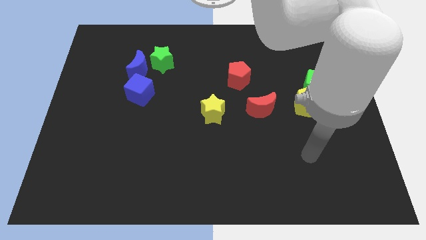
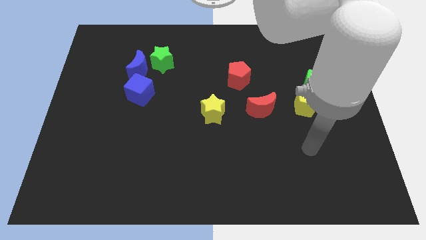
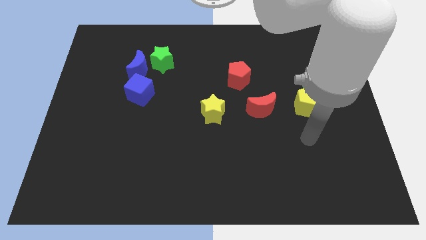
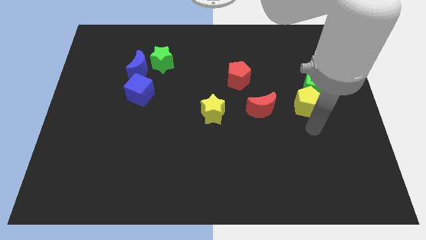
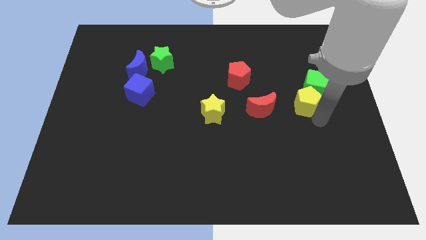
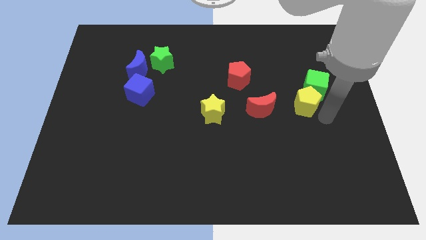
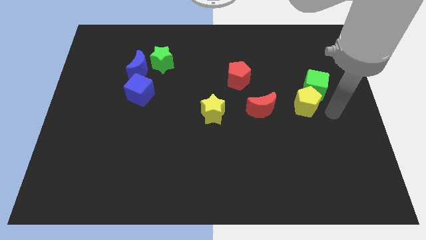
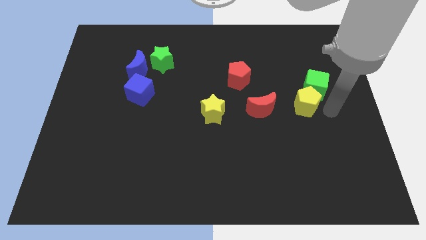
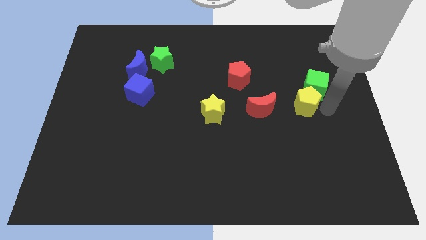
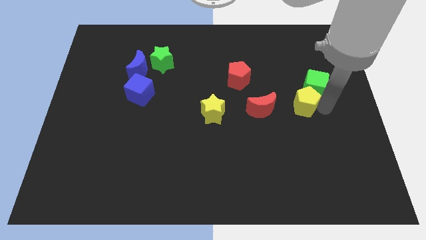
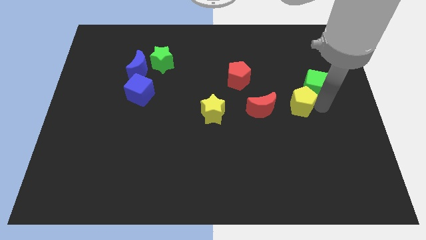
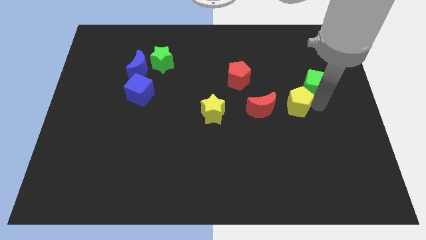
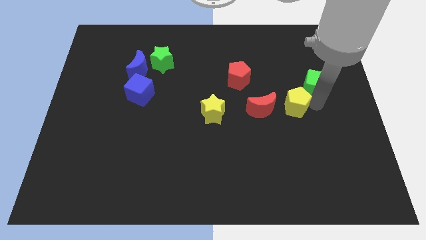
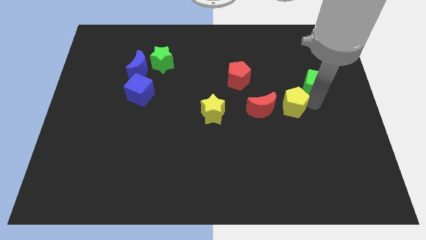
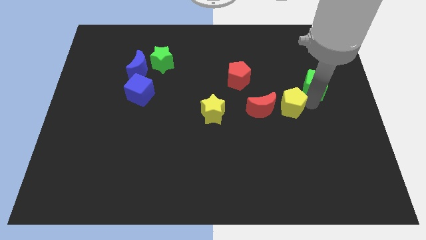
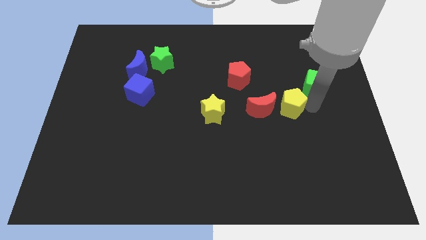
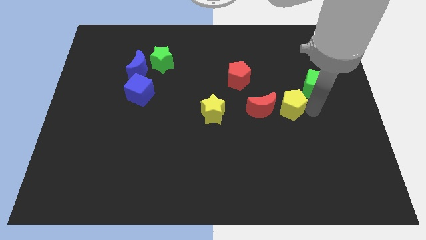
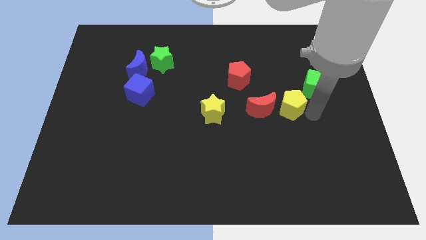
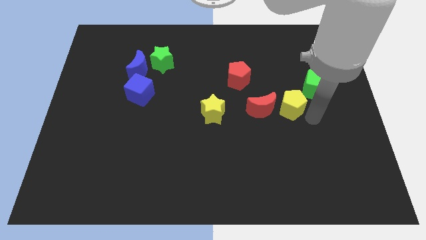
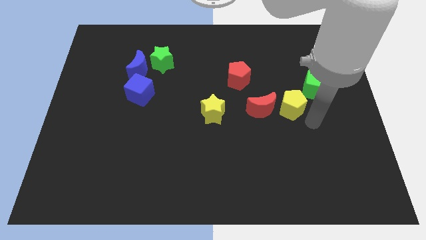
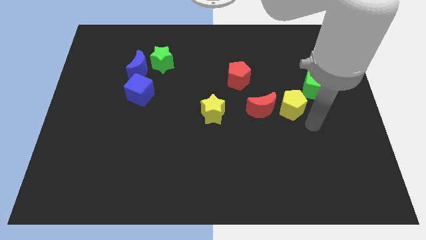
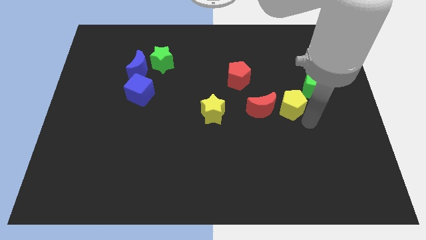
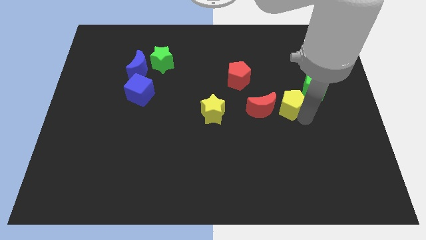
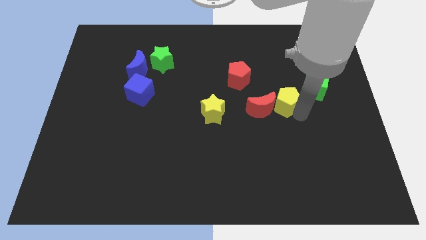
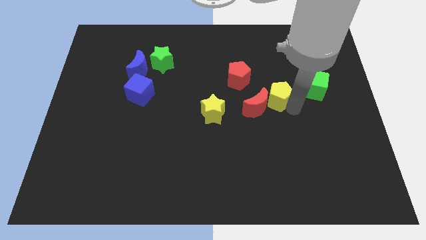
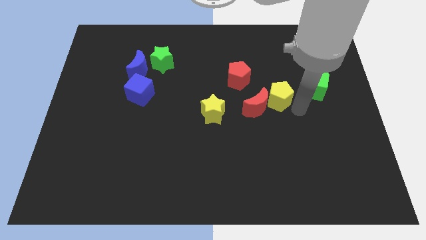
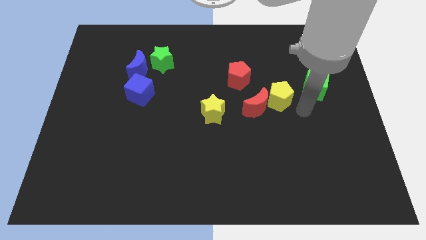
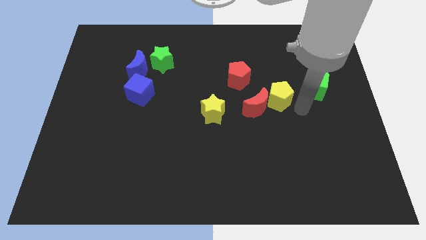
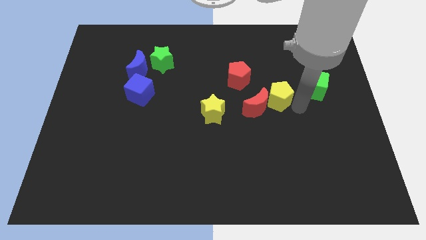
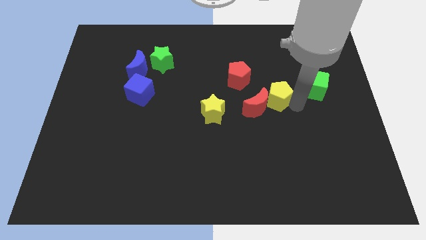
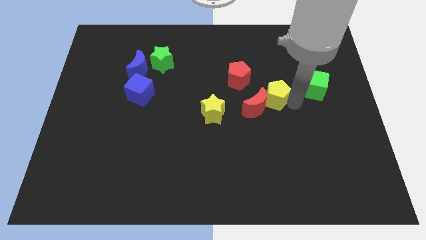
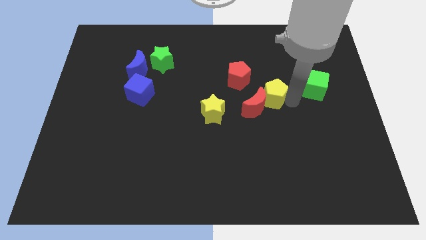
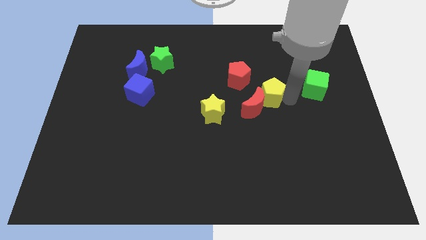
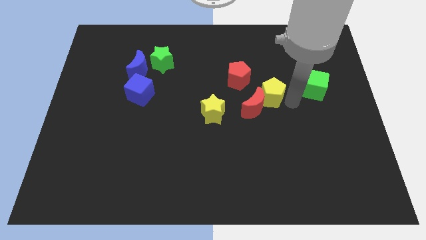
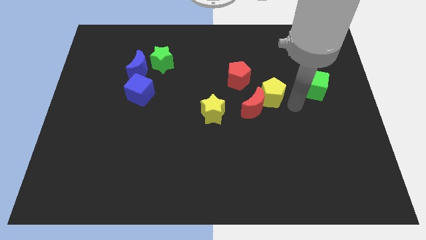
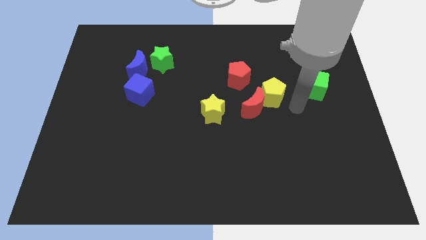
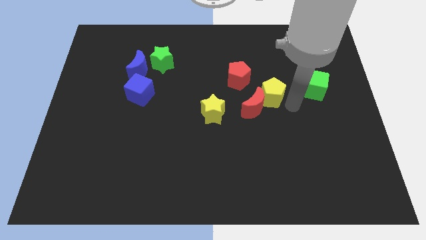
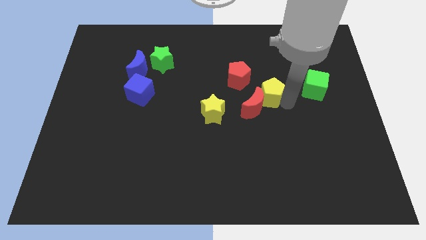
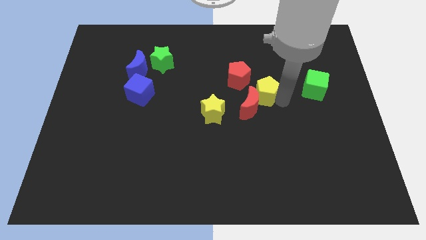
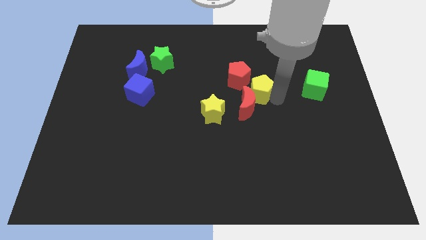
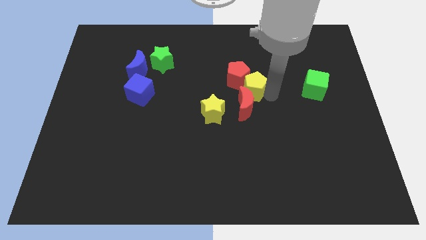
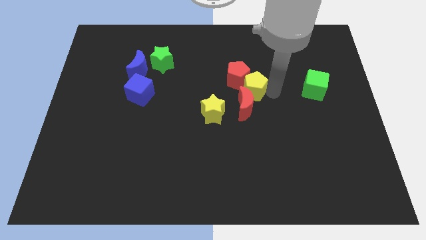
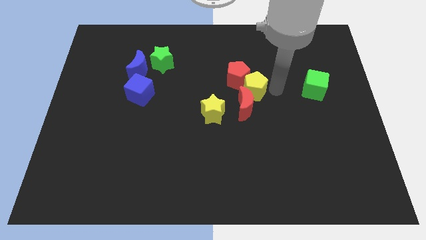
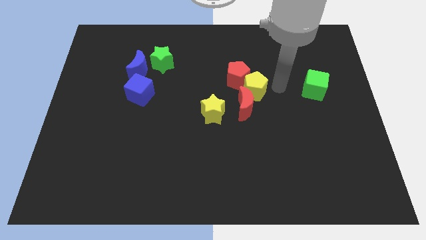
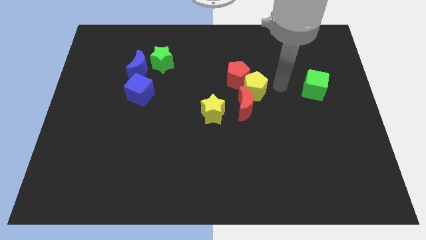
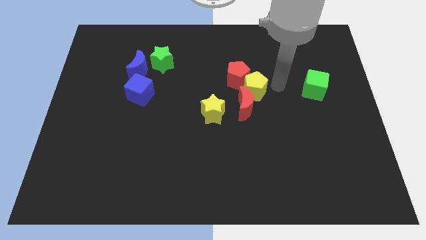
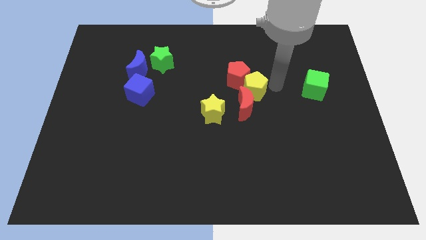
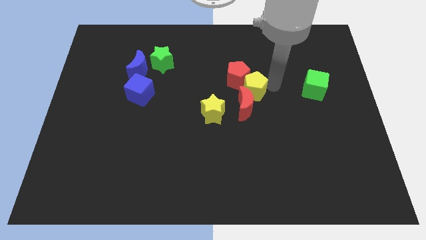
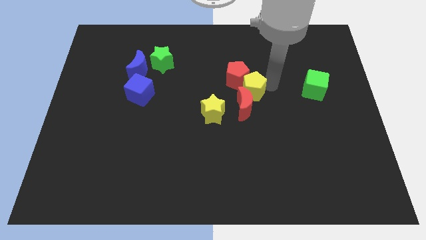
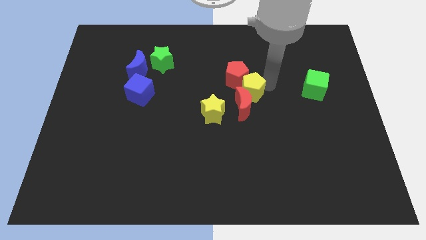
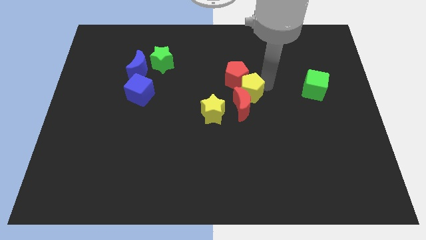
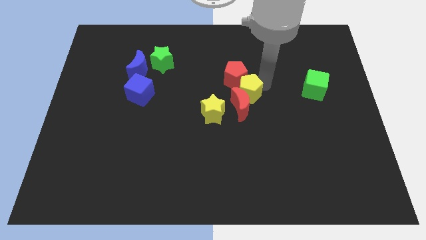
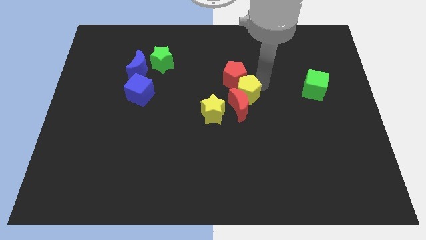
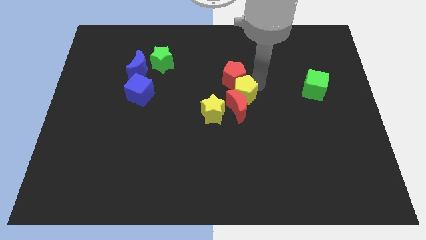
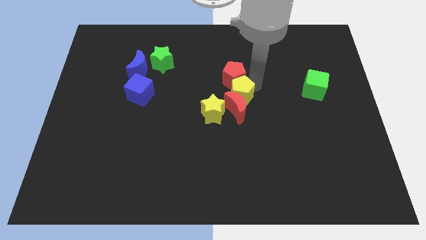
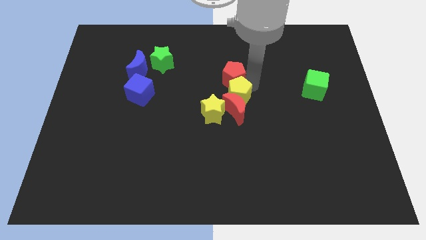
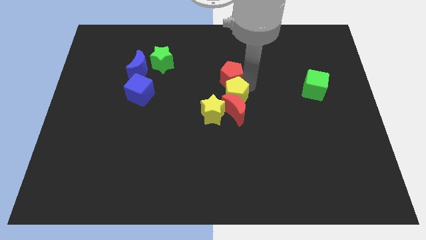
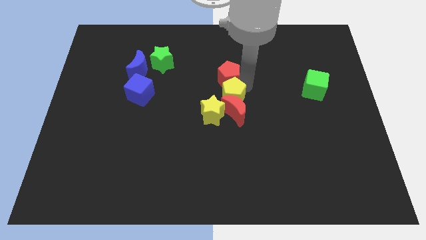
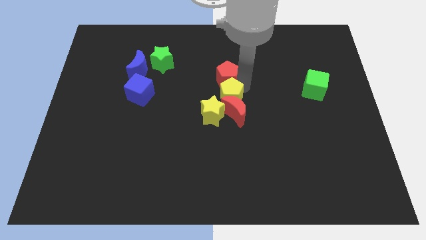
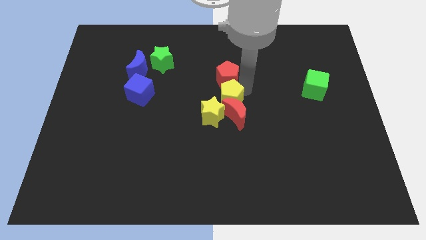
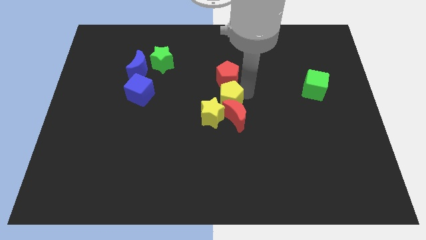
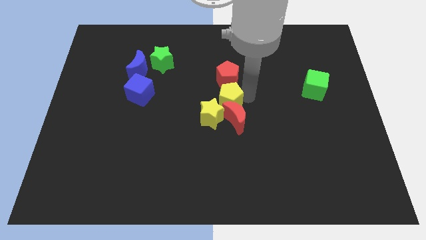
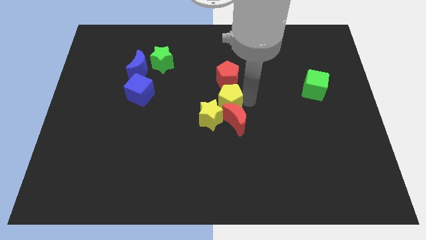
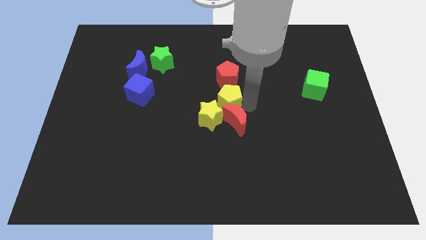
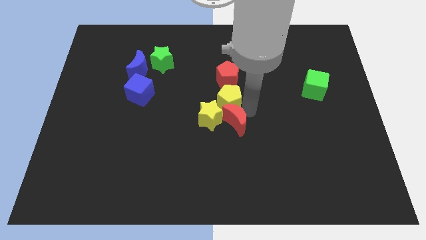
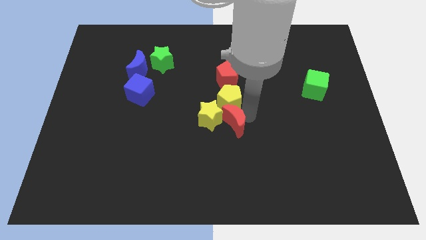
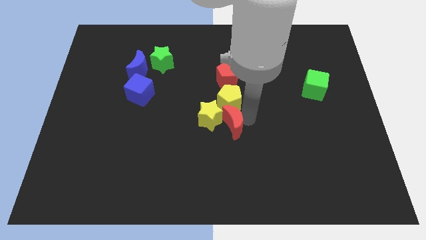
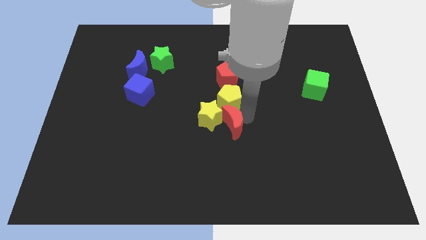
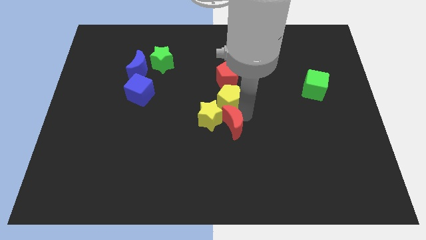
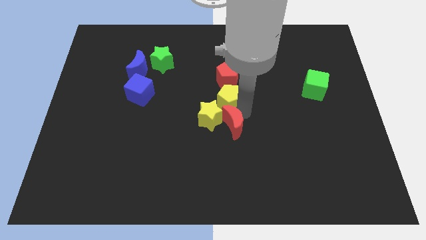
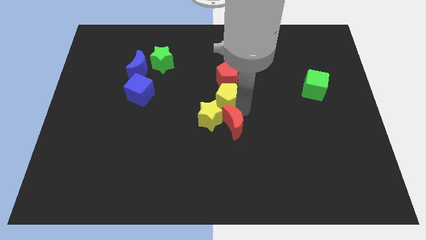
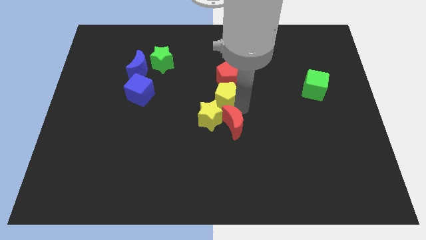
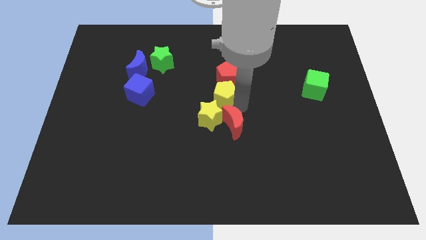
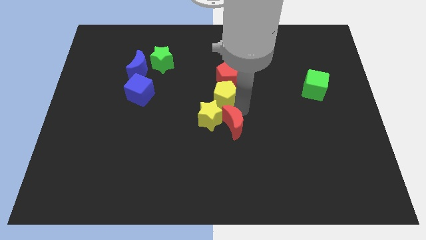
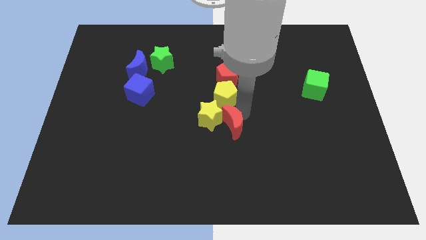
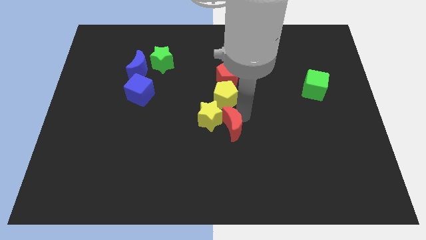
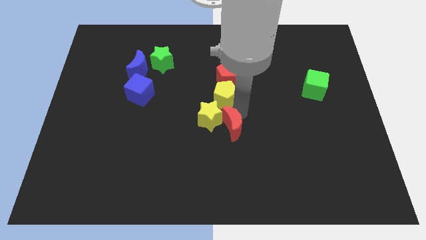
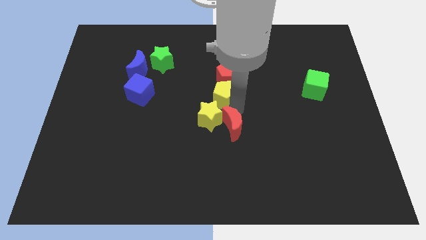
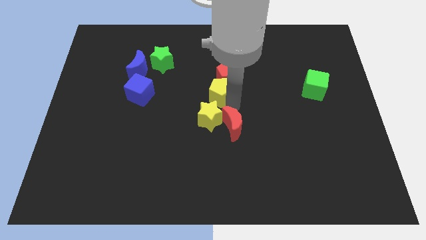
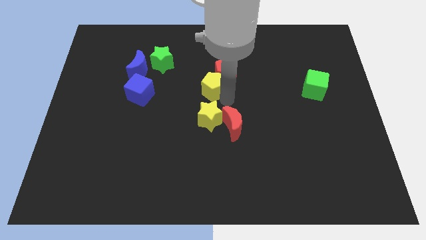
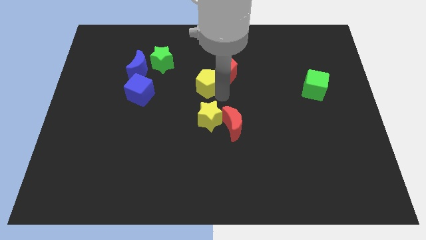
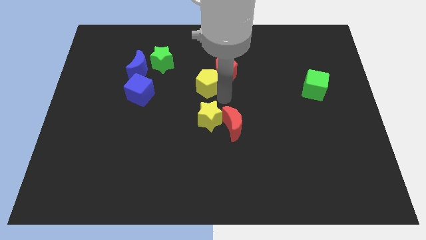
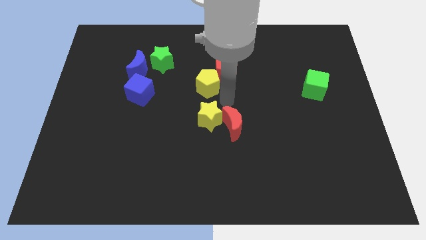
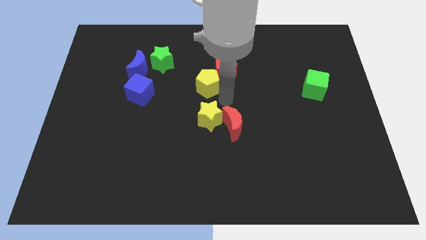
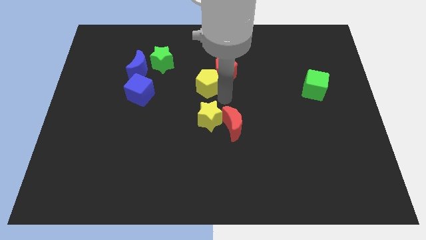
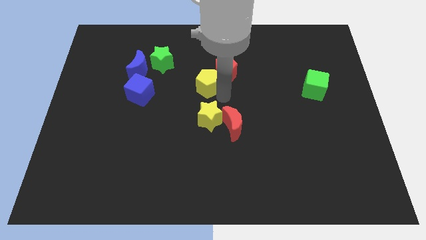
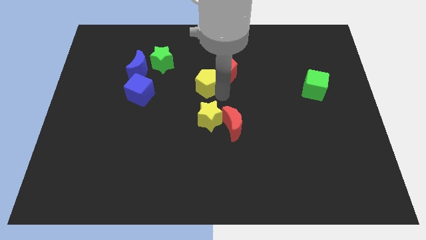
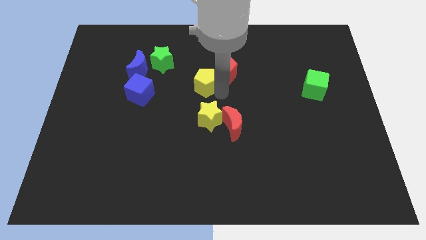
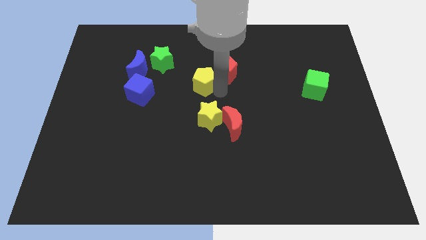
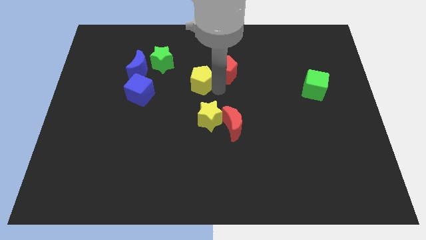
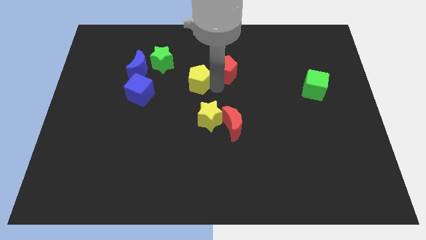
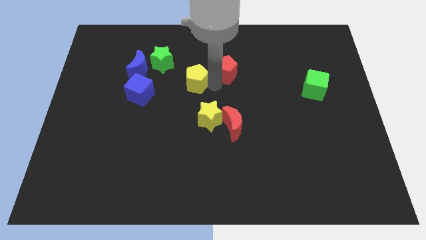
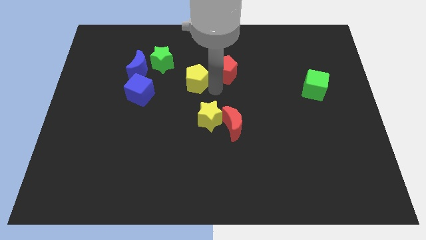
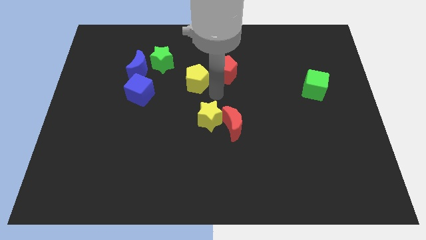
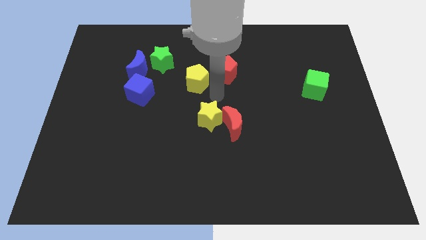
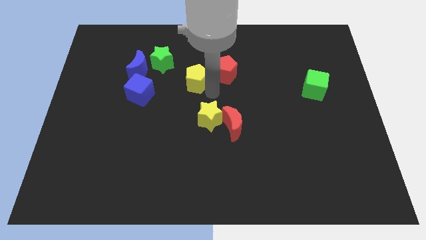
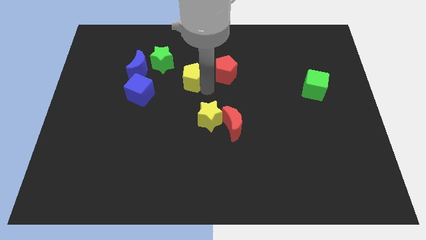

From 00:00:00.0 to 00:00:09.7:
put the yellow pentagon to the right side of the blue moon
